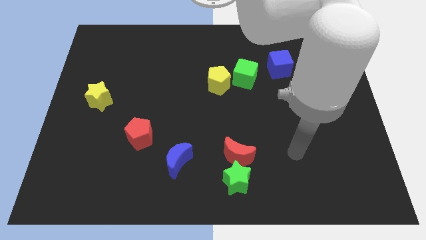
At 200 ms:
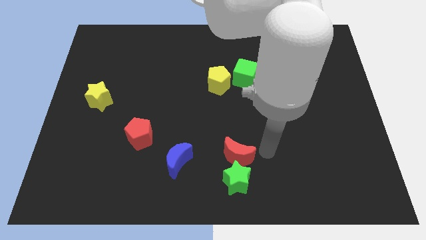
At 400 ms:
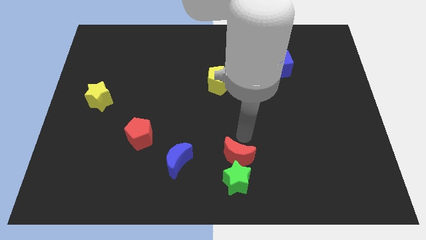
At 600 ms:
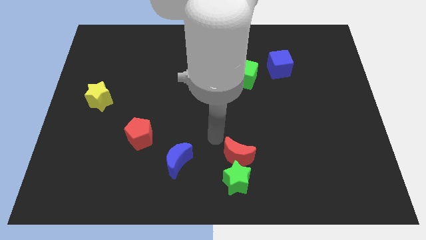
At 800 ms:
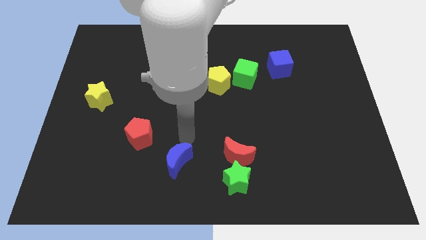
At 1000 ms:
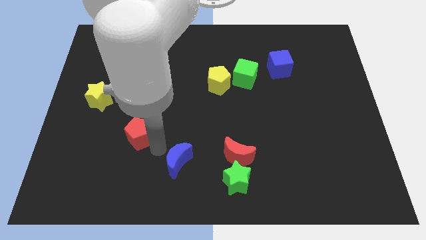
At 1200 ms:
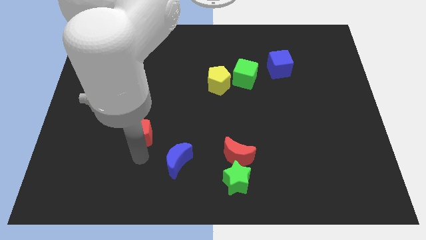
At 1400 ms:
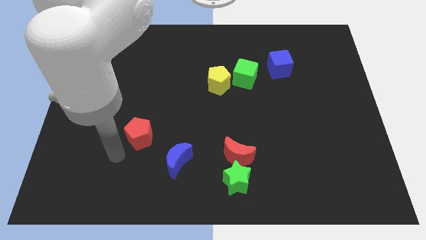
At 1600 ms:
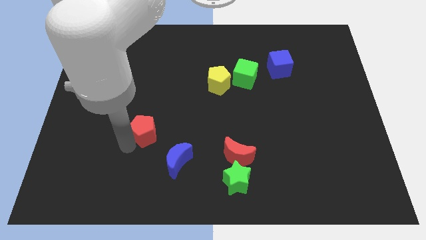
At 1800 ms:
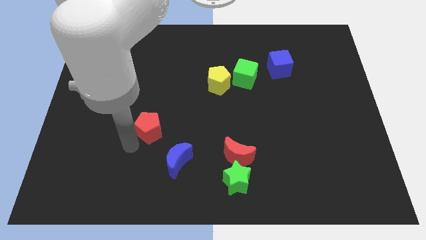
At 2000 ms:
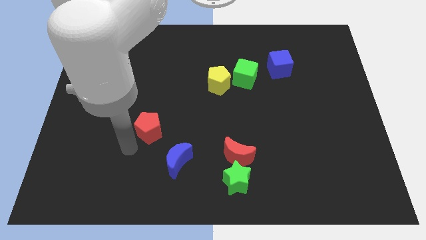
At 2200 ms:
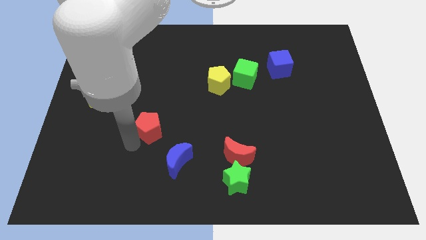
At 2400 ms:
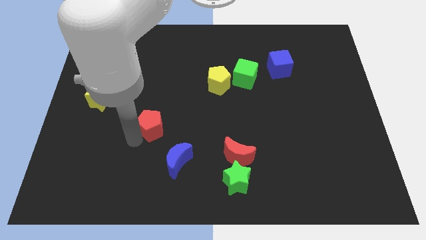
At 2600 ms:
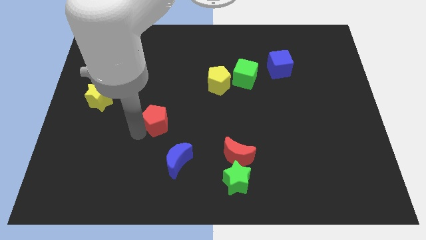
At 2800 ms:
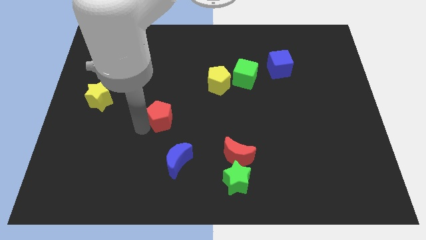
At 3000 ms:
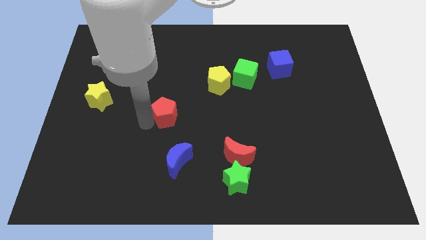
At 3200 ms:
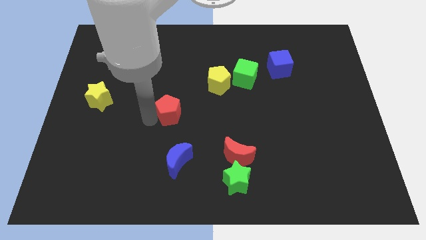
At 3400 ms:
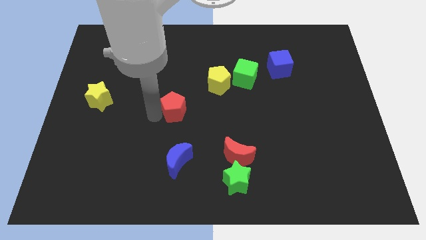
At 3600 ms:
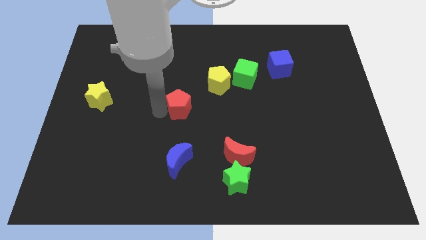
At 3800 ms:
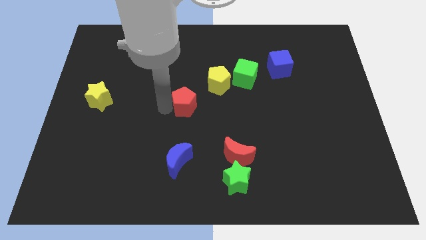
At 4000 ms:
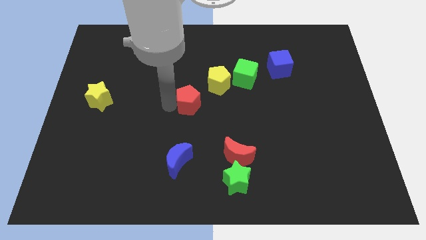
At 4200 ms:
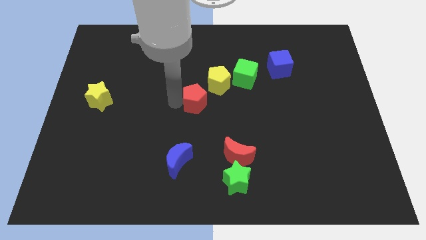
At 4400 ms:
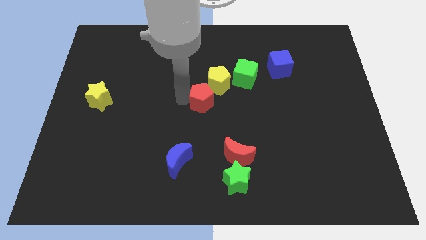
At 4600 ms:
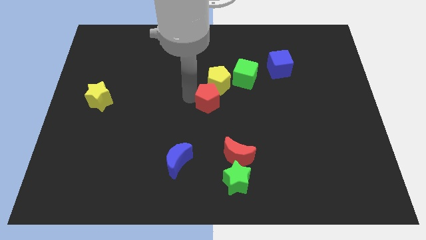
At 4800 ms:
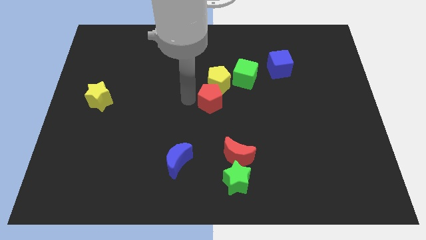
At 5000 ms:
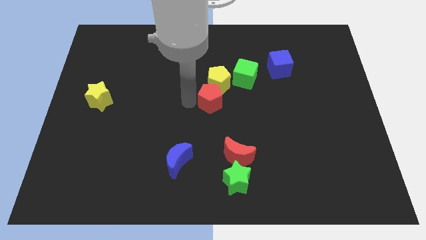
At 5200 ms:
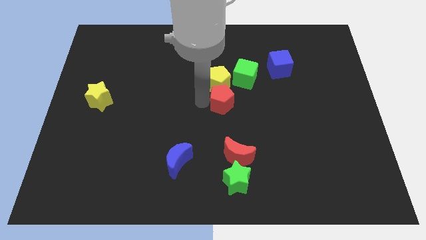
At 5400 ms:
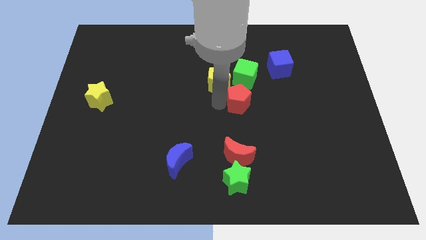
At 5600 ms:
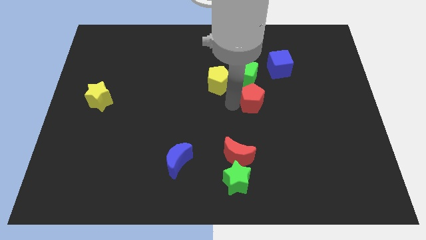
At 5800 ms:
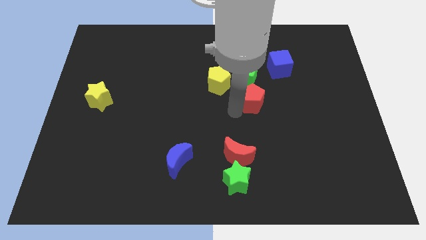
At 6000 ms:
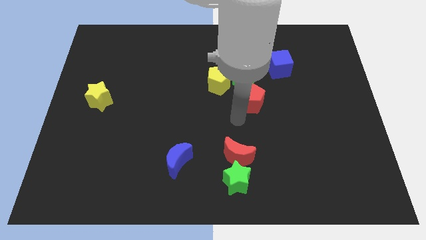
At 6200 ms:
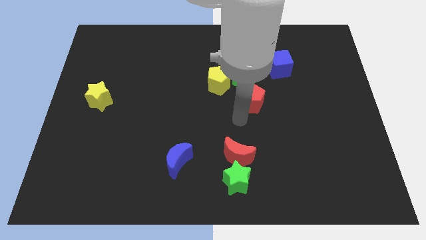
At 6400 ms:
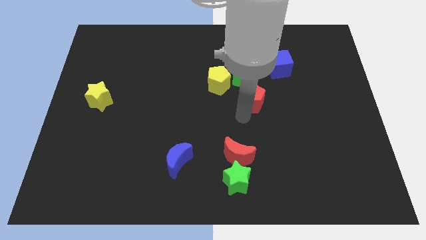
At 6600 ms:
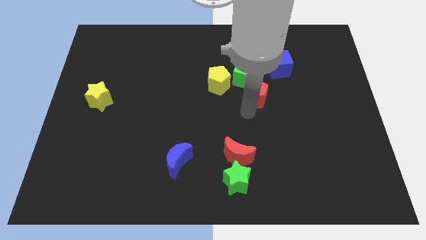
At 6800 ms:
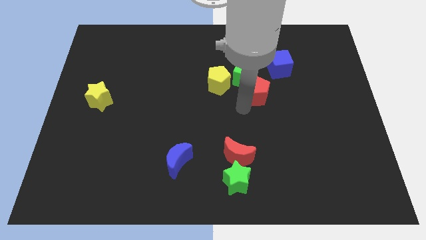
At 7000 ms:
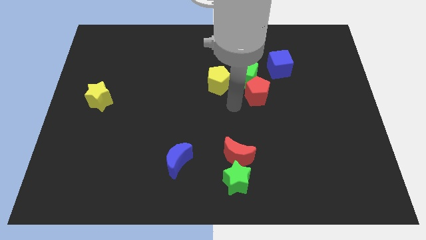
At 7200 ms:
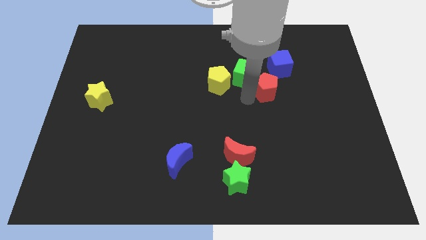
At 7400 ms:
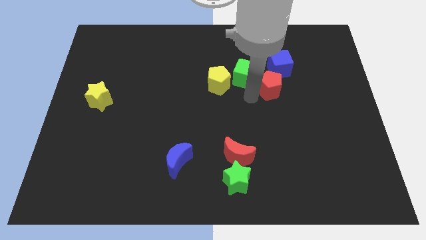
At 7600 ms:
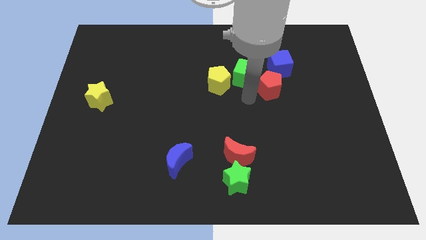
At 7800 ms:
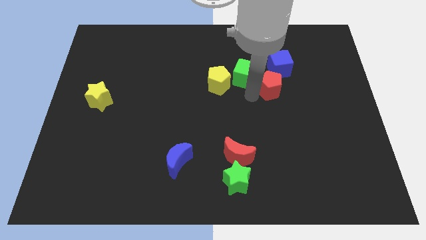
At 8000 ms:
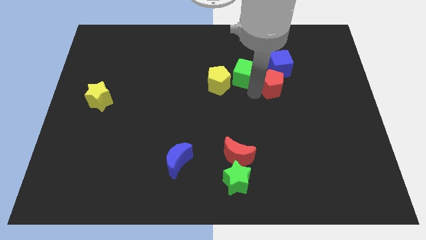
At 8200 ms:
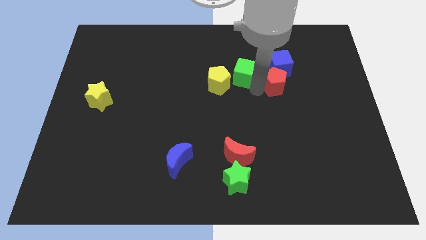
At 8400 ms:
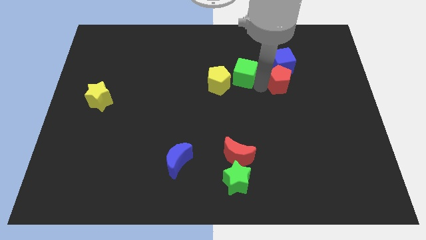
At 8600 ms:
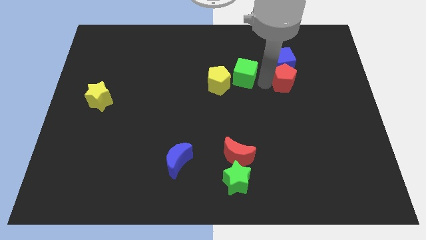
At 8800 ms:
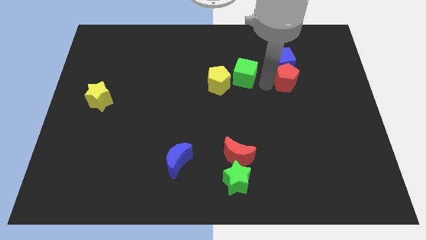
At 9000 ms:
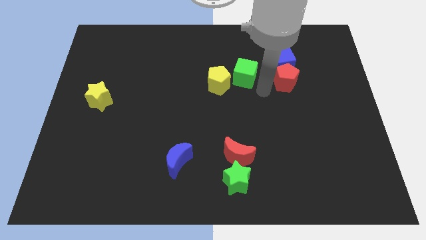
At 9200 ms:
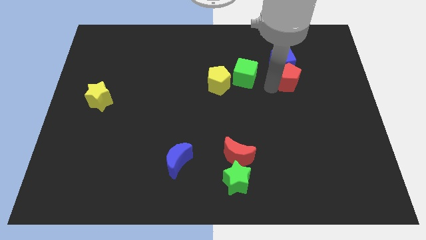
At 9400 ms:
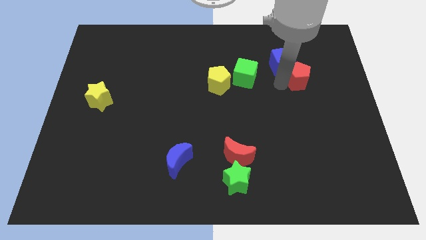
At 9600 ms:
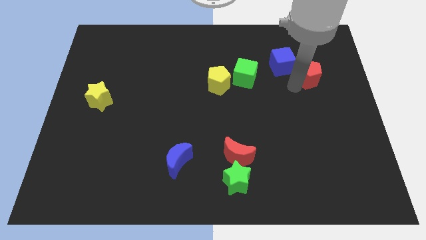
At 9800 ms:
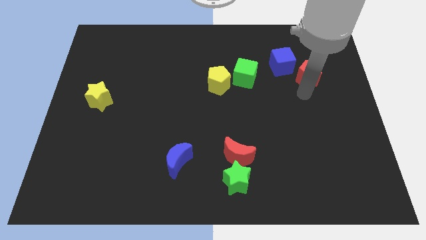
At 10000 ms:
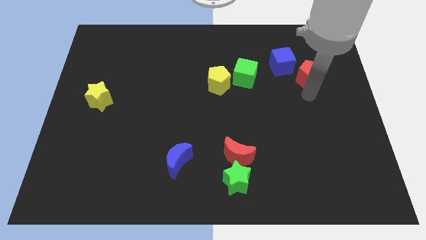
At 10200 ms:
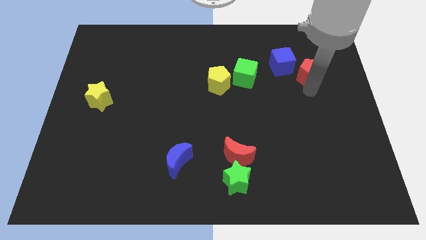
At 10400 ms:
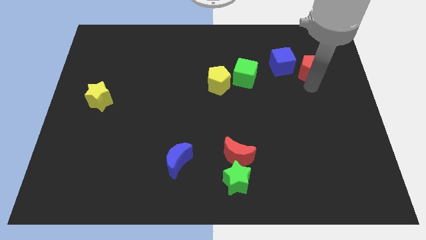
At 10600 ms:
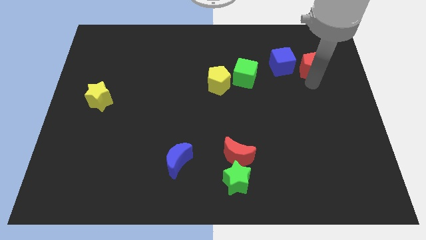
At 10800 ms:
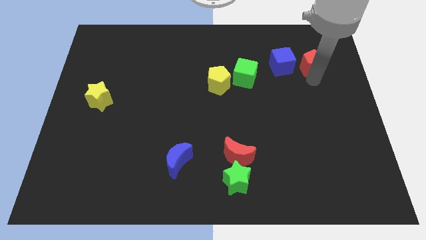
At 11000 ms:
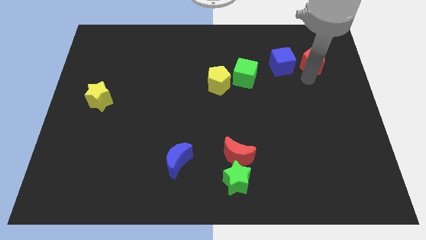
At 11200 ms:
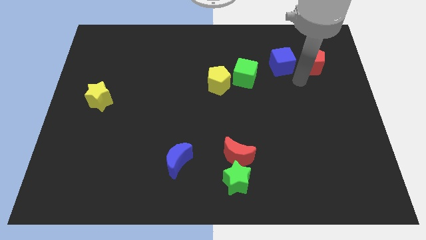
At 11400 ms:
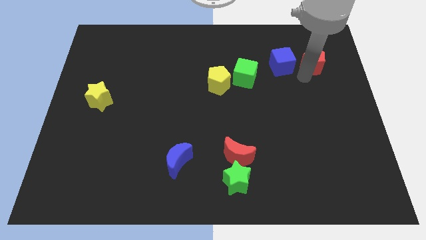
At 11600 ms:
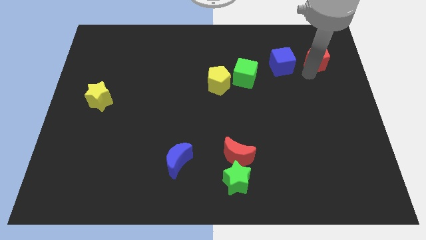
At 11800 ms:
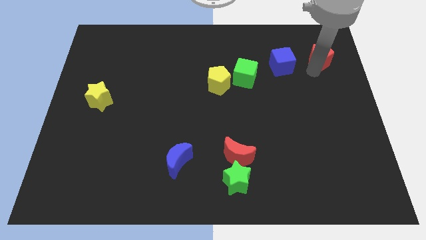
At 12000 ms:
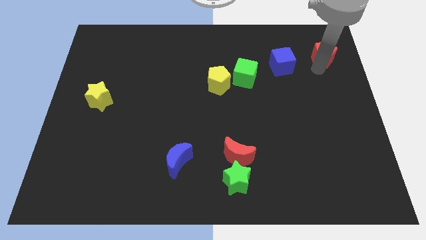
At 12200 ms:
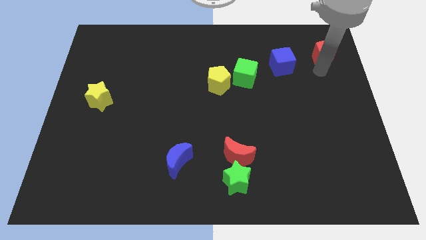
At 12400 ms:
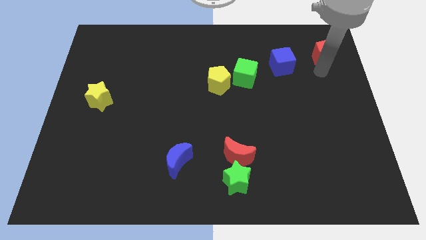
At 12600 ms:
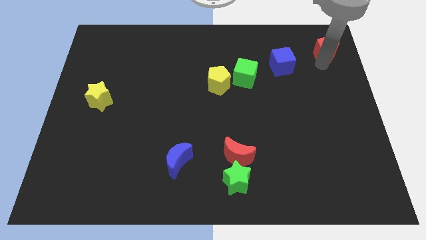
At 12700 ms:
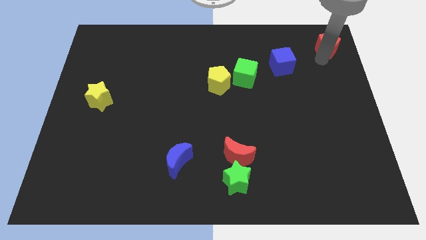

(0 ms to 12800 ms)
move the red pentagon to the top right of the board
